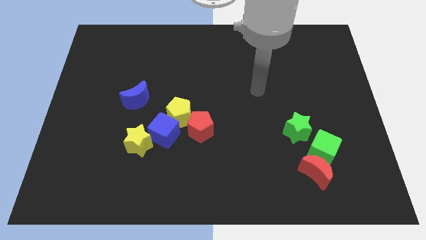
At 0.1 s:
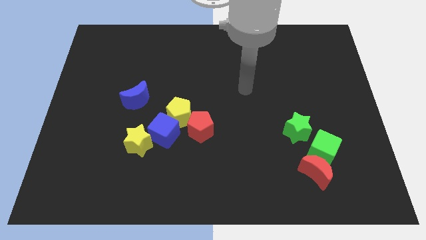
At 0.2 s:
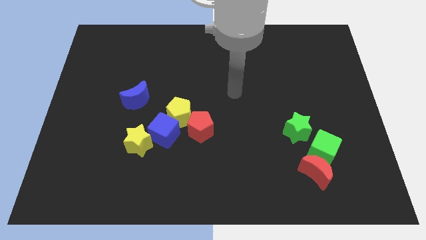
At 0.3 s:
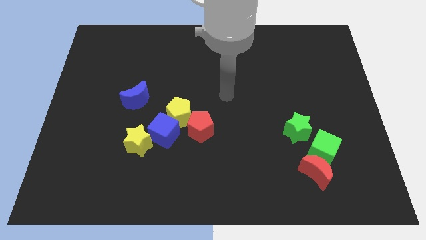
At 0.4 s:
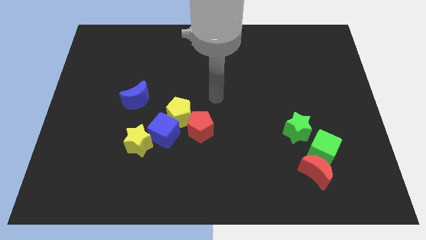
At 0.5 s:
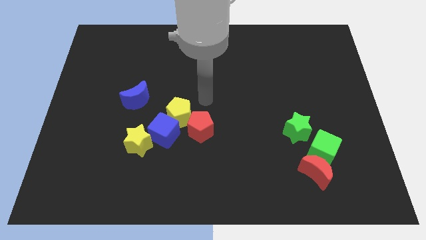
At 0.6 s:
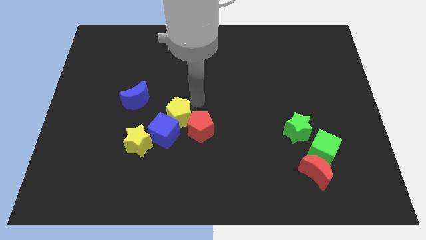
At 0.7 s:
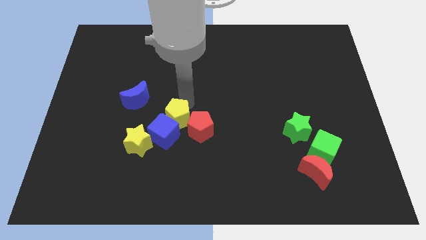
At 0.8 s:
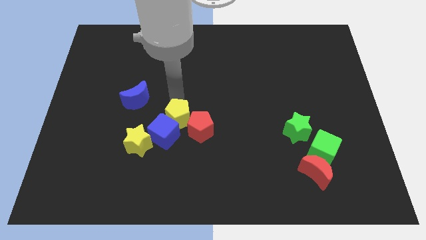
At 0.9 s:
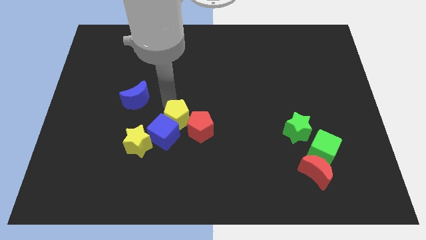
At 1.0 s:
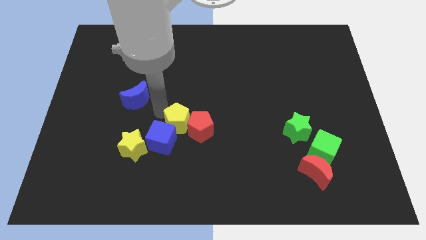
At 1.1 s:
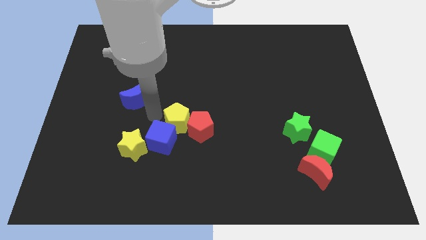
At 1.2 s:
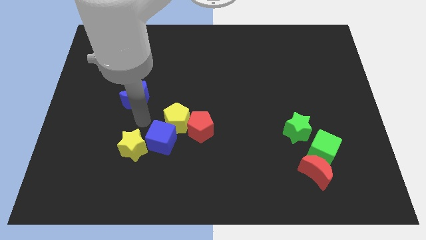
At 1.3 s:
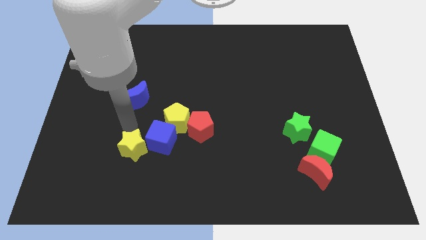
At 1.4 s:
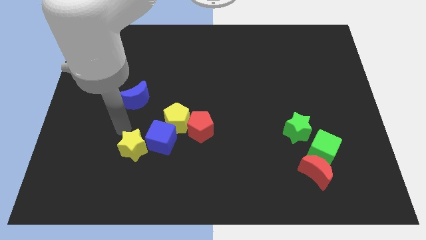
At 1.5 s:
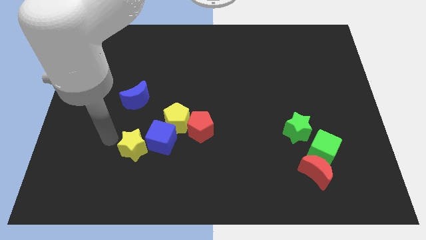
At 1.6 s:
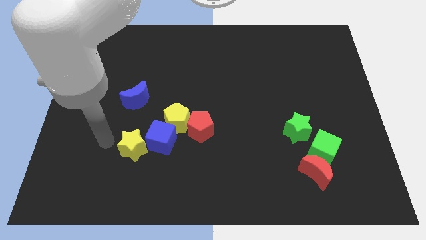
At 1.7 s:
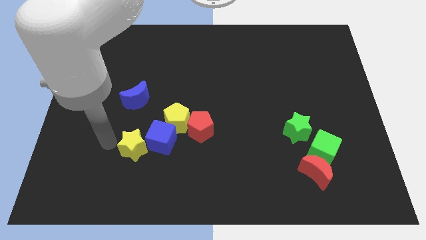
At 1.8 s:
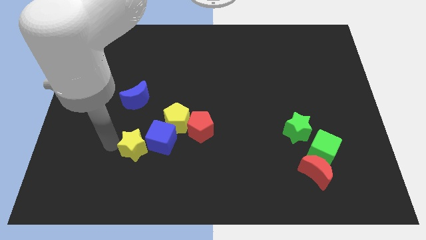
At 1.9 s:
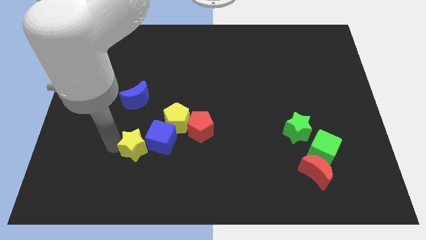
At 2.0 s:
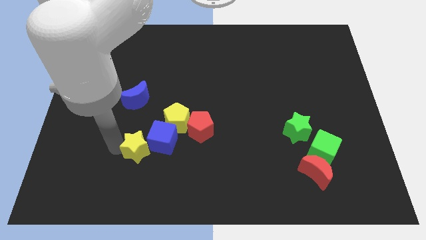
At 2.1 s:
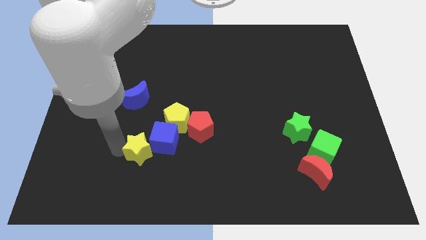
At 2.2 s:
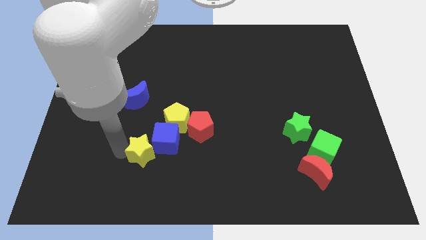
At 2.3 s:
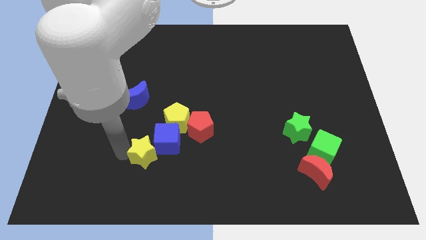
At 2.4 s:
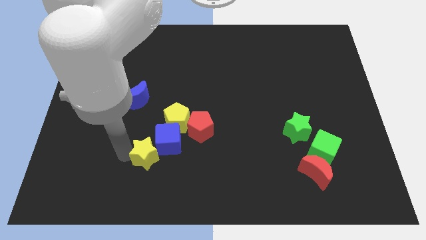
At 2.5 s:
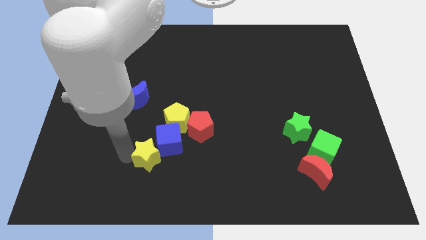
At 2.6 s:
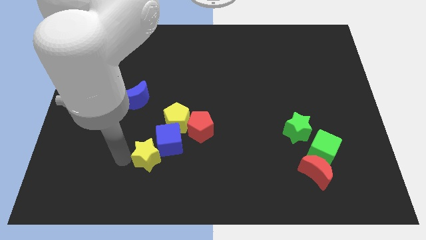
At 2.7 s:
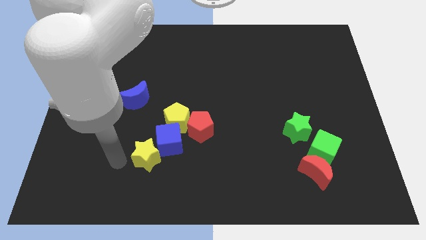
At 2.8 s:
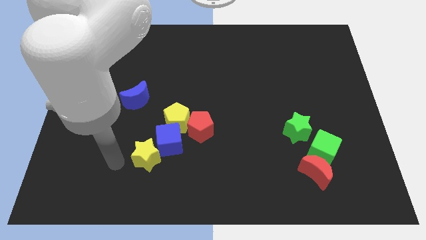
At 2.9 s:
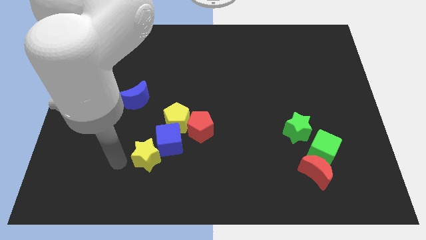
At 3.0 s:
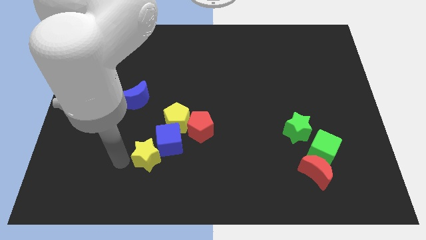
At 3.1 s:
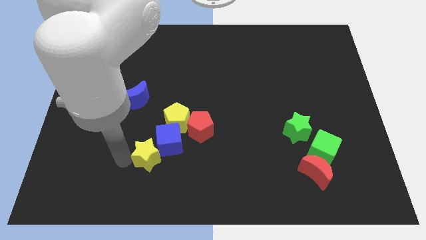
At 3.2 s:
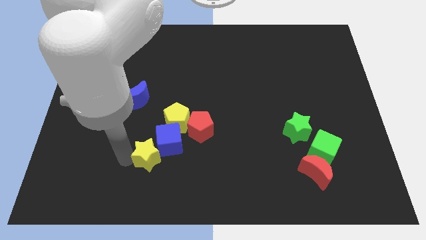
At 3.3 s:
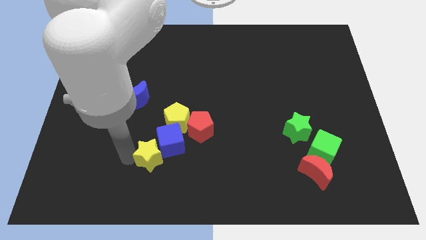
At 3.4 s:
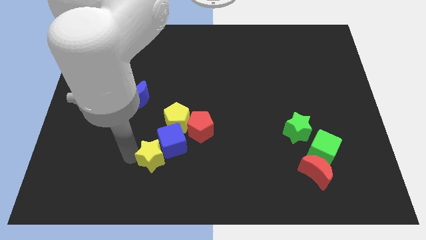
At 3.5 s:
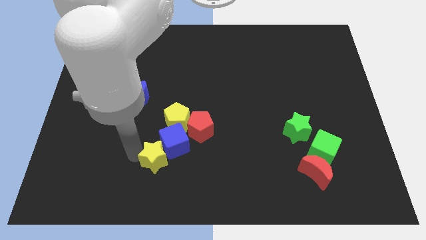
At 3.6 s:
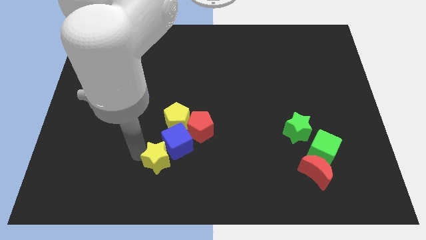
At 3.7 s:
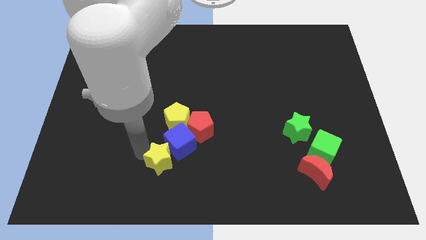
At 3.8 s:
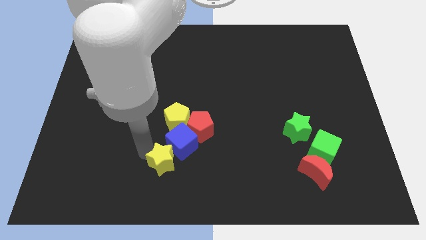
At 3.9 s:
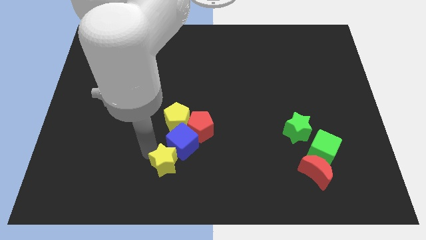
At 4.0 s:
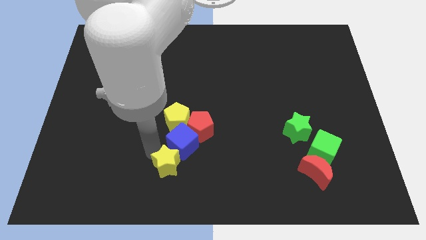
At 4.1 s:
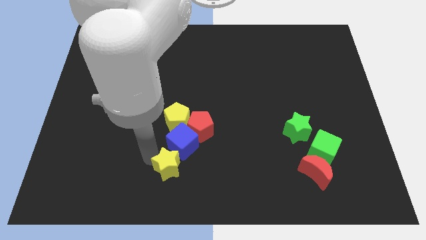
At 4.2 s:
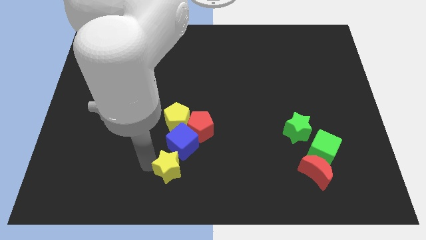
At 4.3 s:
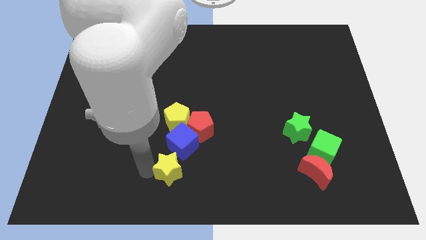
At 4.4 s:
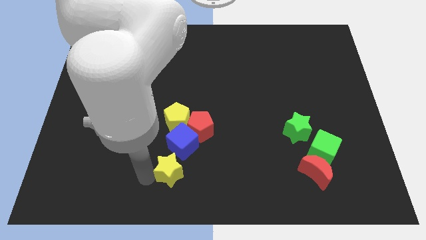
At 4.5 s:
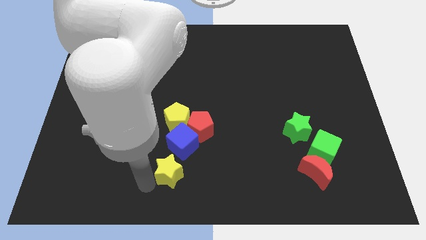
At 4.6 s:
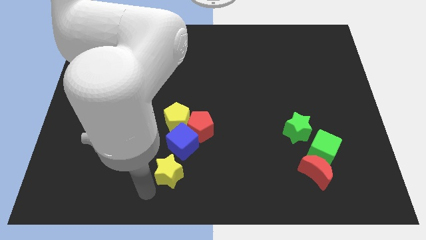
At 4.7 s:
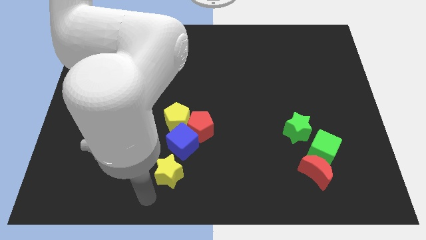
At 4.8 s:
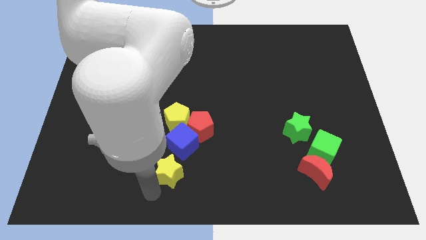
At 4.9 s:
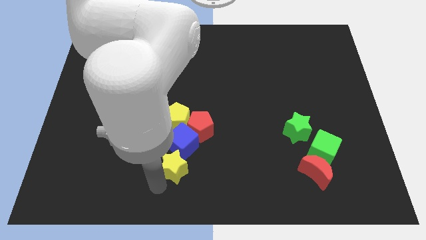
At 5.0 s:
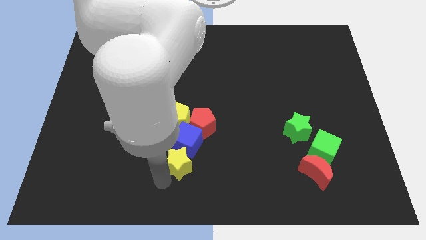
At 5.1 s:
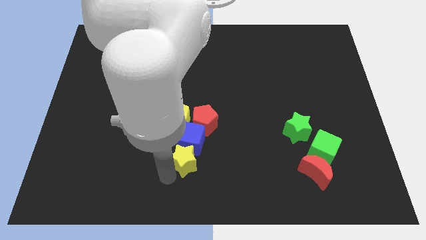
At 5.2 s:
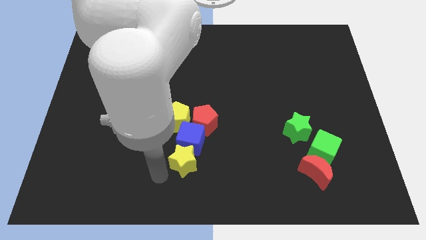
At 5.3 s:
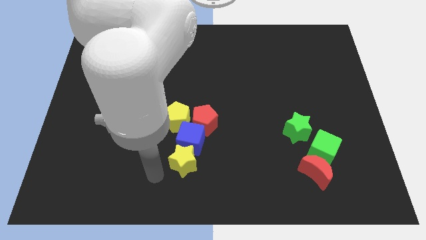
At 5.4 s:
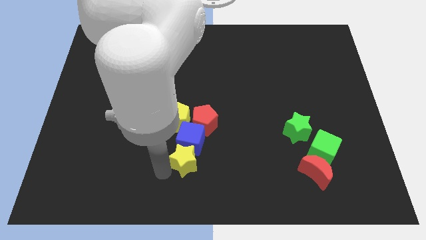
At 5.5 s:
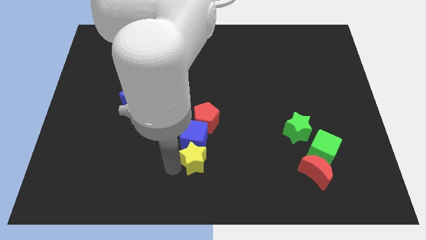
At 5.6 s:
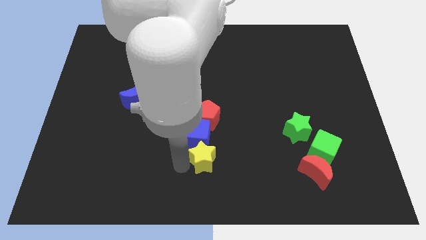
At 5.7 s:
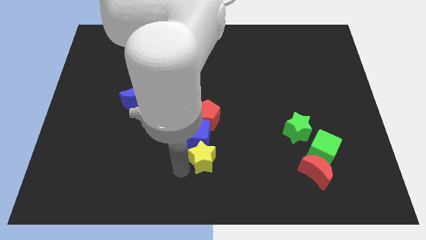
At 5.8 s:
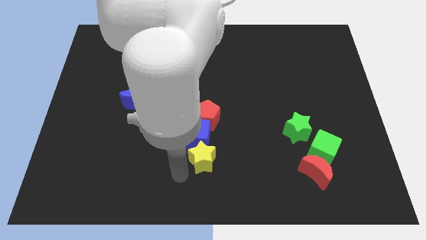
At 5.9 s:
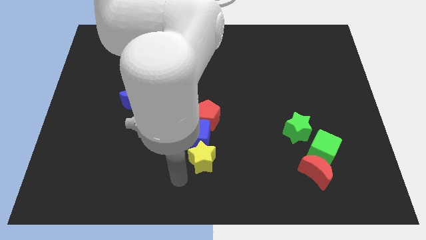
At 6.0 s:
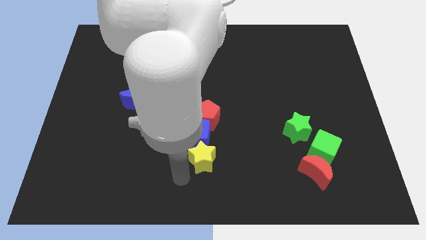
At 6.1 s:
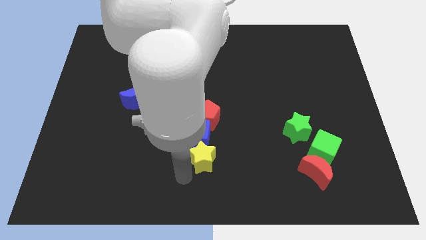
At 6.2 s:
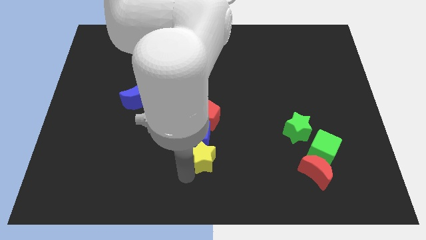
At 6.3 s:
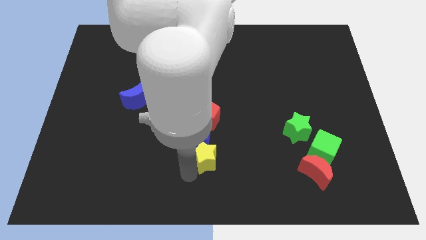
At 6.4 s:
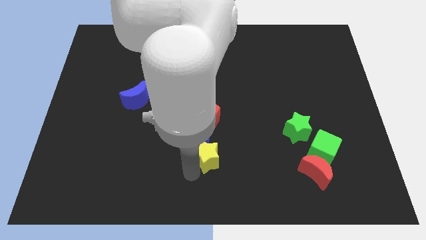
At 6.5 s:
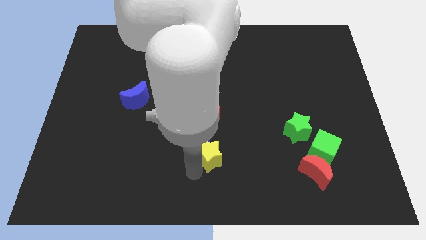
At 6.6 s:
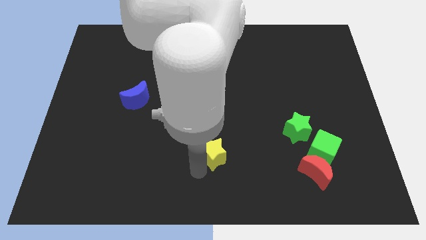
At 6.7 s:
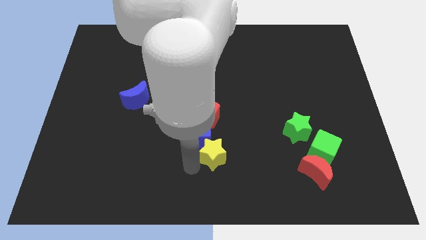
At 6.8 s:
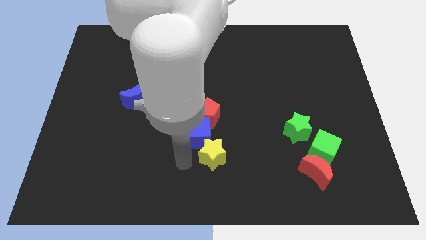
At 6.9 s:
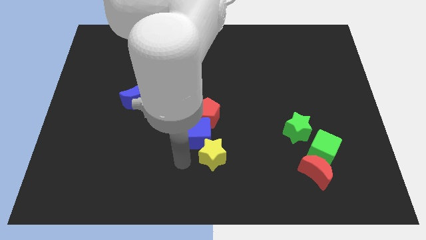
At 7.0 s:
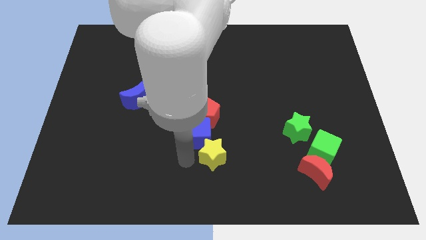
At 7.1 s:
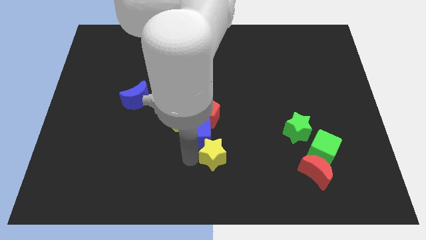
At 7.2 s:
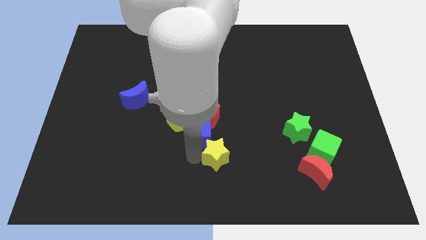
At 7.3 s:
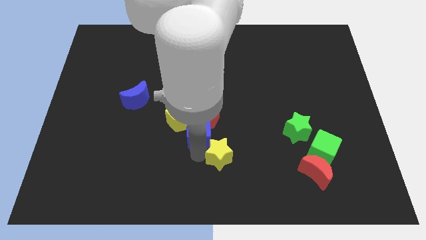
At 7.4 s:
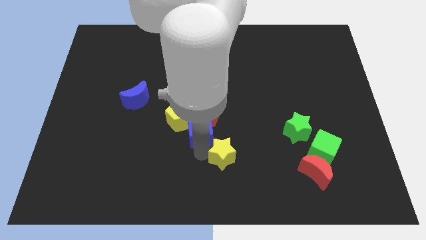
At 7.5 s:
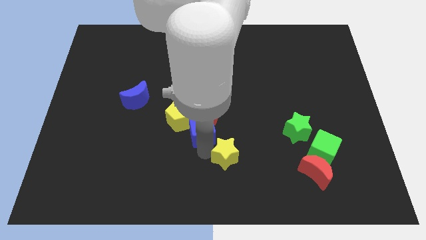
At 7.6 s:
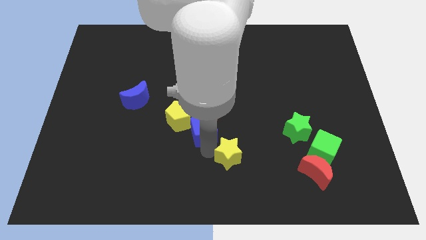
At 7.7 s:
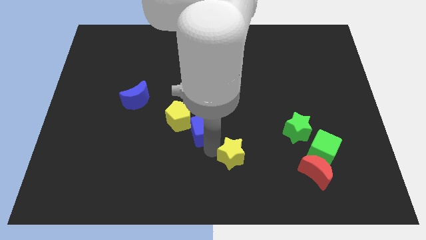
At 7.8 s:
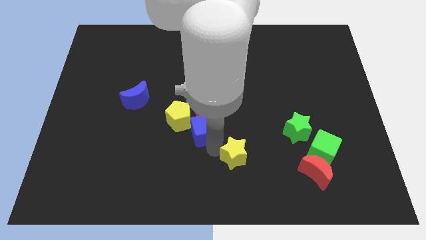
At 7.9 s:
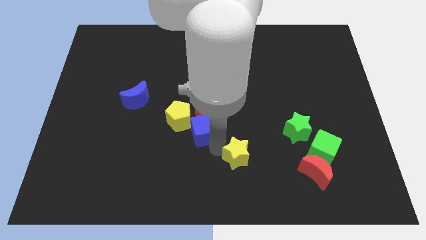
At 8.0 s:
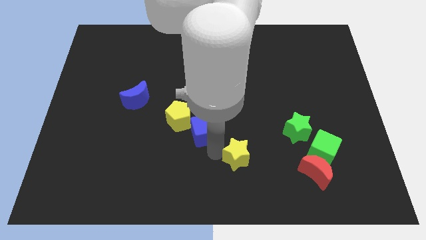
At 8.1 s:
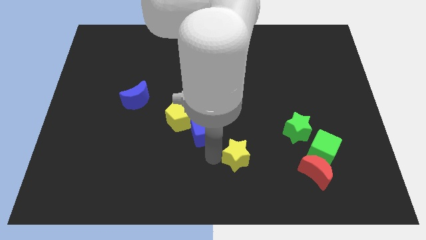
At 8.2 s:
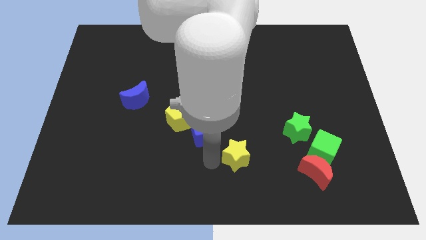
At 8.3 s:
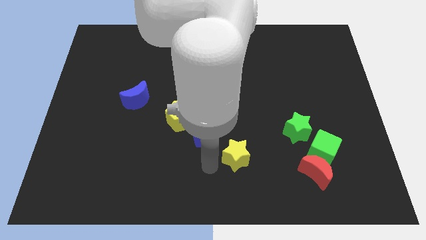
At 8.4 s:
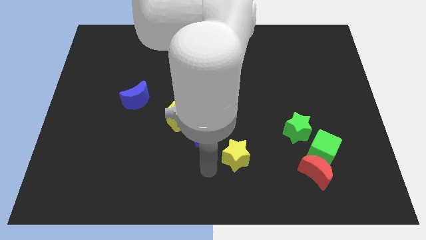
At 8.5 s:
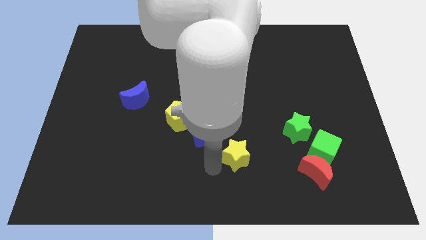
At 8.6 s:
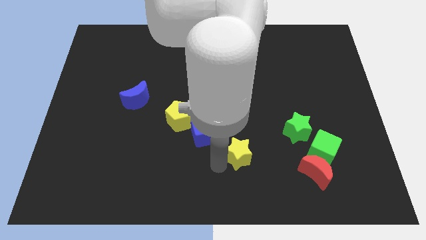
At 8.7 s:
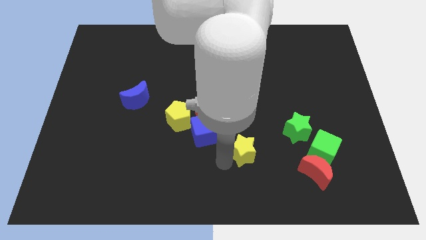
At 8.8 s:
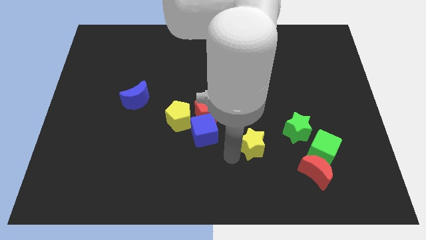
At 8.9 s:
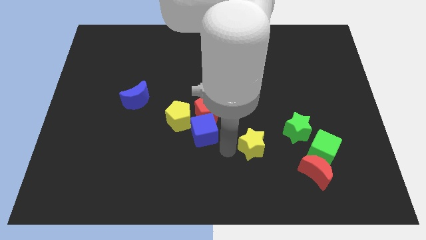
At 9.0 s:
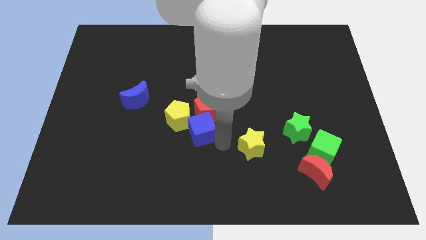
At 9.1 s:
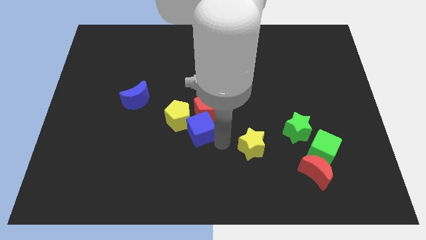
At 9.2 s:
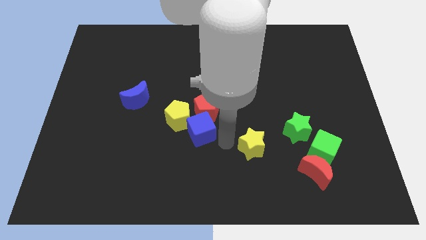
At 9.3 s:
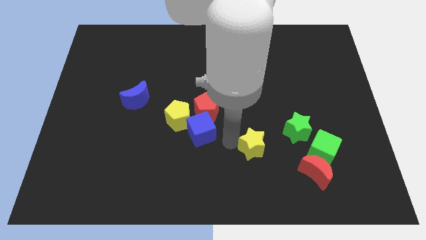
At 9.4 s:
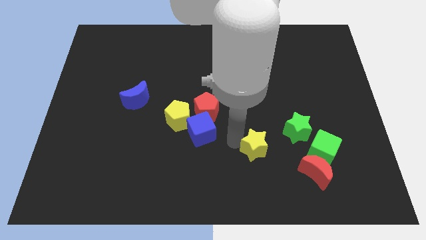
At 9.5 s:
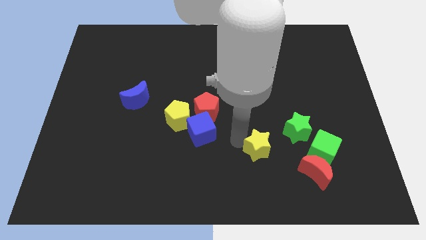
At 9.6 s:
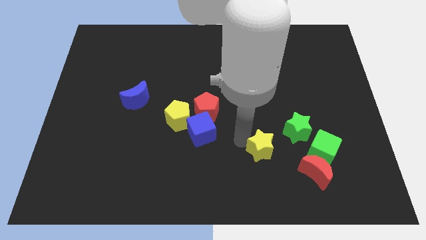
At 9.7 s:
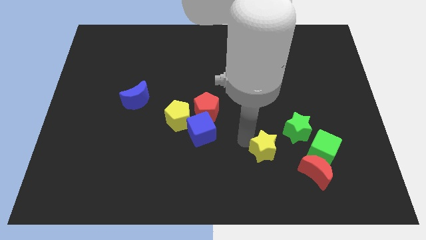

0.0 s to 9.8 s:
slide the yellow star diagonally up and to the left of the red moon
